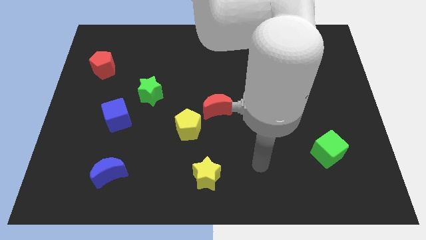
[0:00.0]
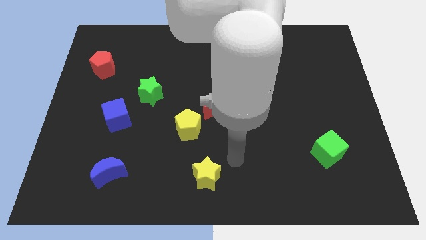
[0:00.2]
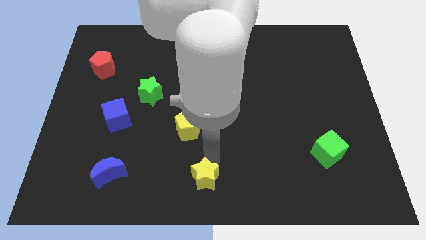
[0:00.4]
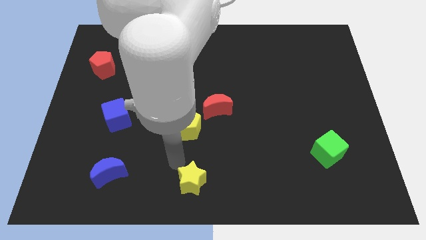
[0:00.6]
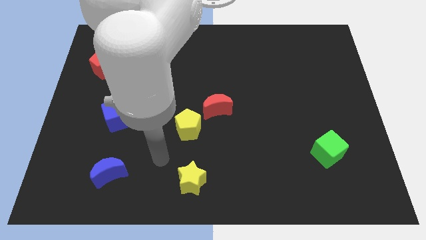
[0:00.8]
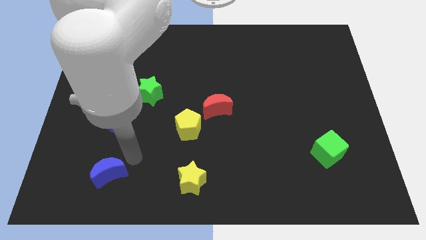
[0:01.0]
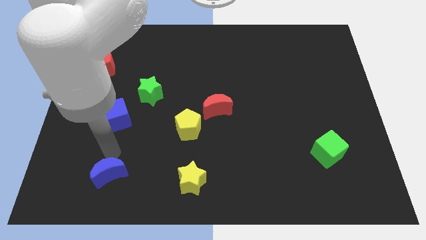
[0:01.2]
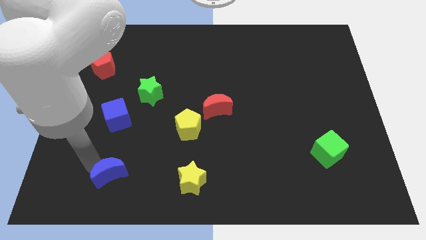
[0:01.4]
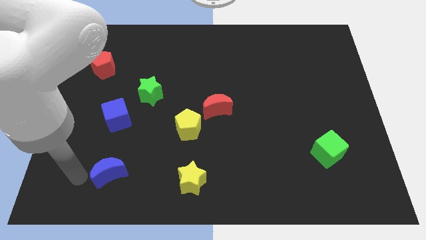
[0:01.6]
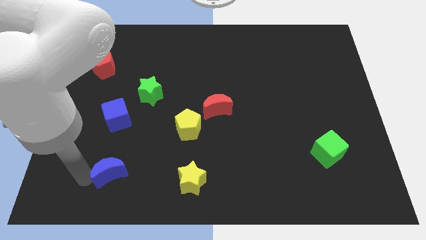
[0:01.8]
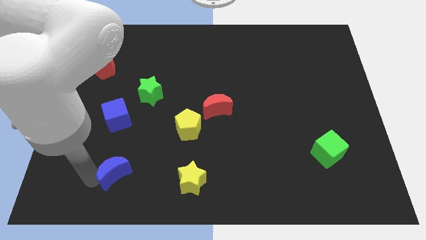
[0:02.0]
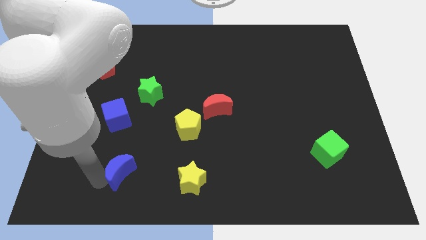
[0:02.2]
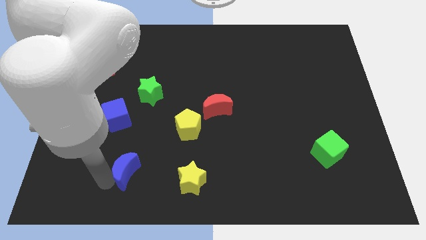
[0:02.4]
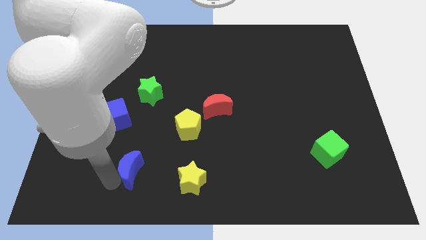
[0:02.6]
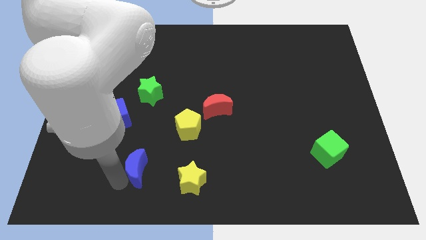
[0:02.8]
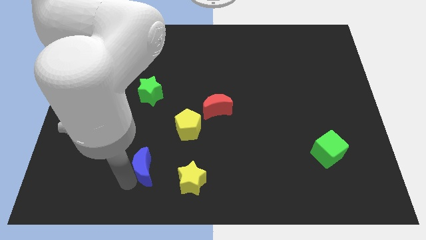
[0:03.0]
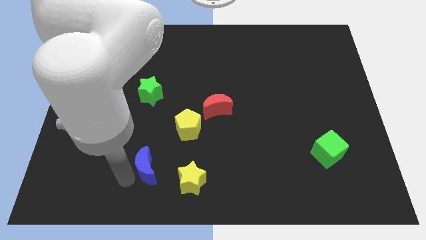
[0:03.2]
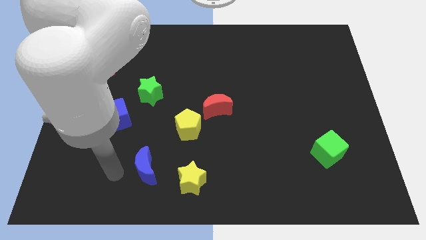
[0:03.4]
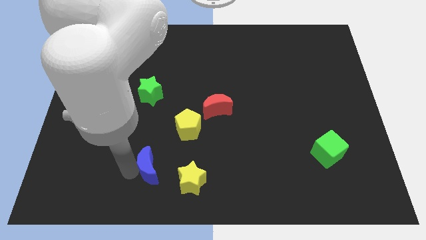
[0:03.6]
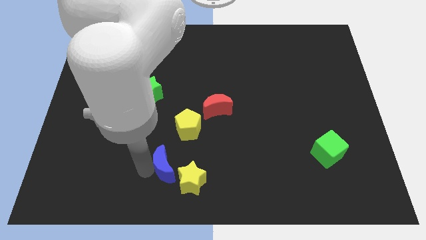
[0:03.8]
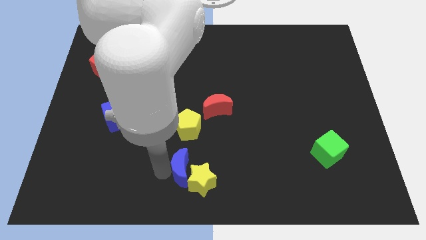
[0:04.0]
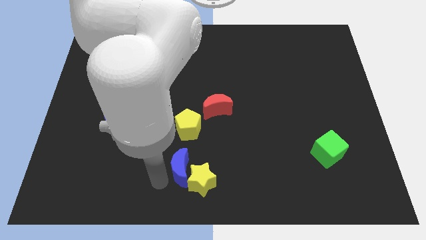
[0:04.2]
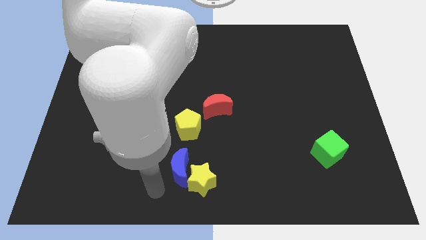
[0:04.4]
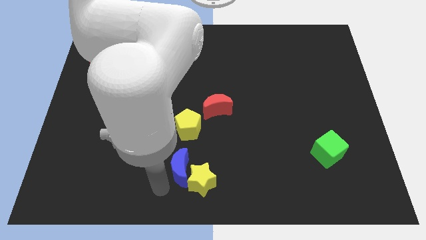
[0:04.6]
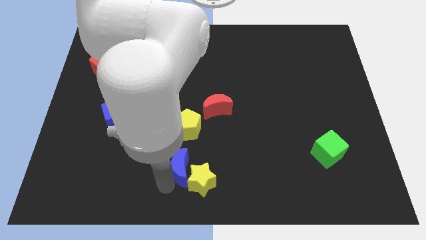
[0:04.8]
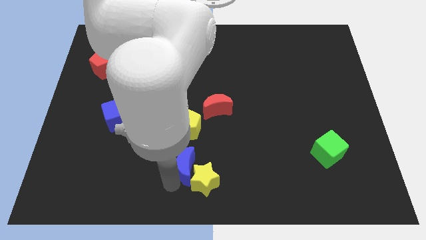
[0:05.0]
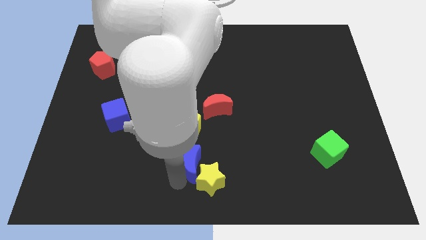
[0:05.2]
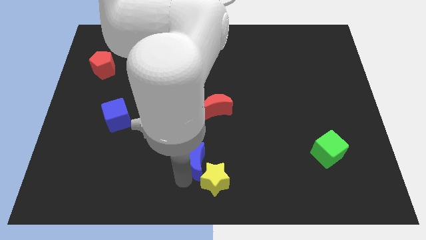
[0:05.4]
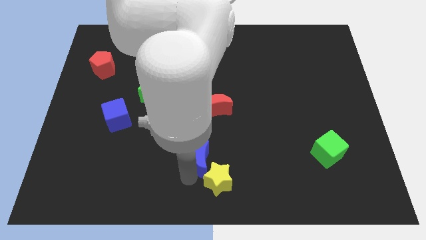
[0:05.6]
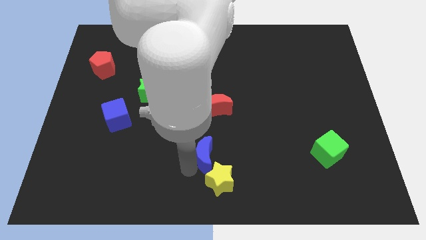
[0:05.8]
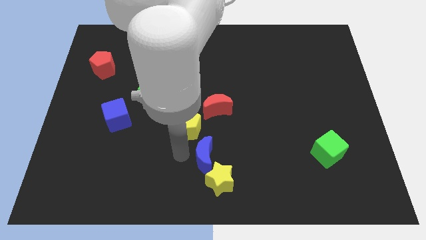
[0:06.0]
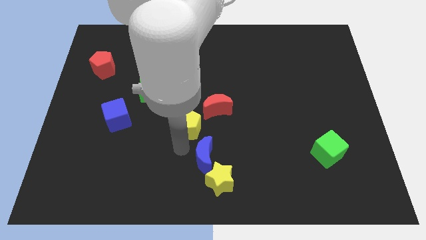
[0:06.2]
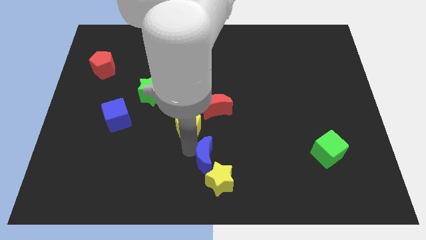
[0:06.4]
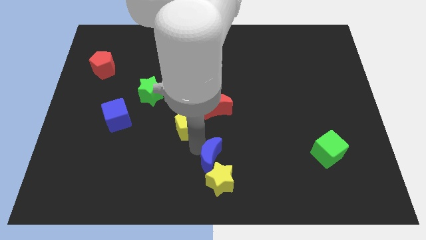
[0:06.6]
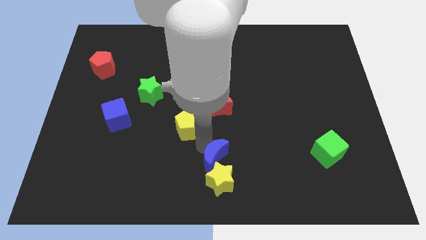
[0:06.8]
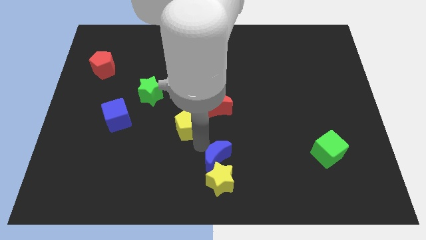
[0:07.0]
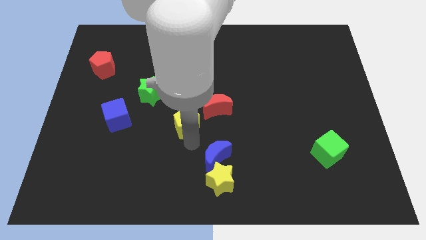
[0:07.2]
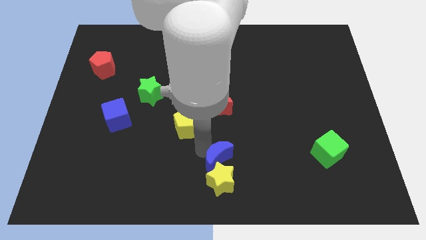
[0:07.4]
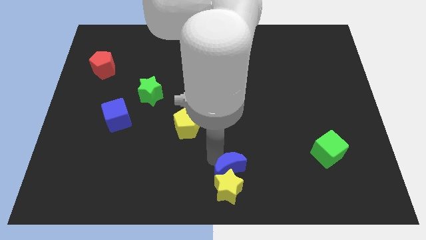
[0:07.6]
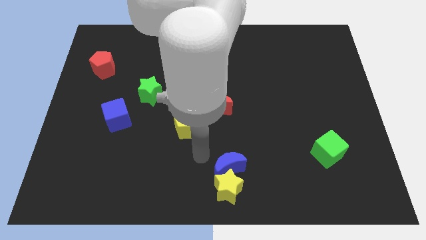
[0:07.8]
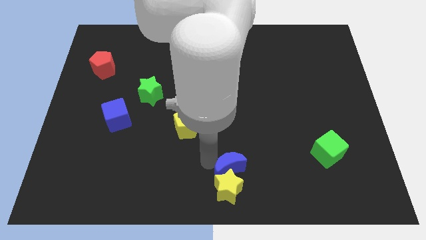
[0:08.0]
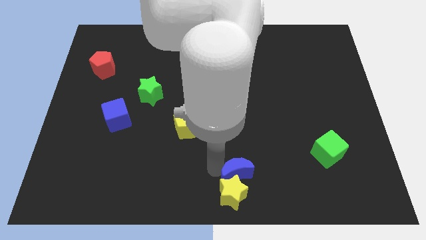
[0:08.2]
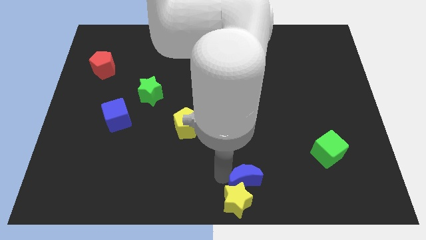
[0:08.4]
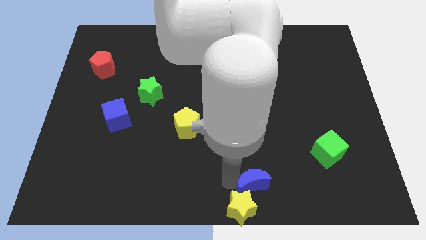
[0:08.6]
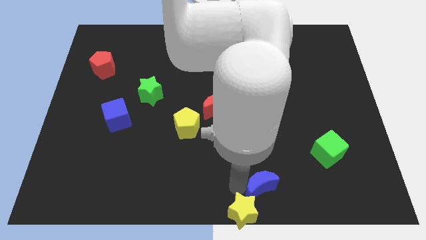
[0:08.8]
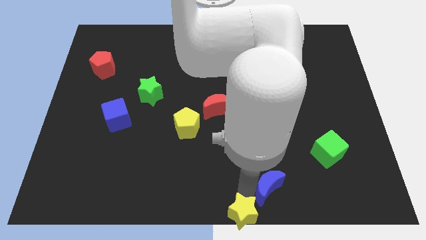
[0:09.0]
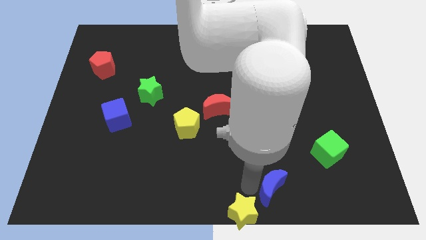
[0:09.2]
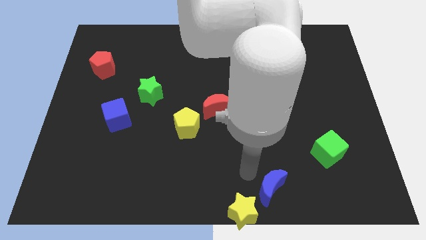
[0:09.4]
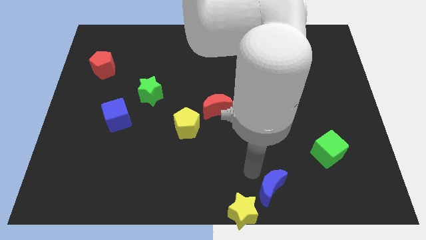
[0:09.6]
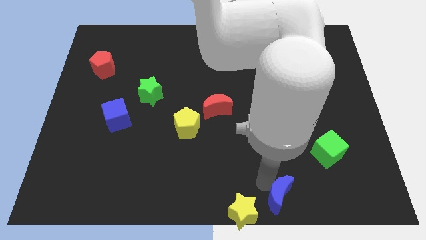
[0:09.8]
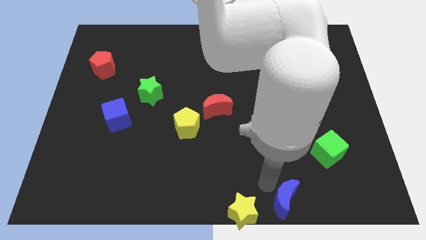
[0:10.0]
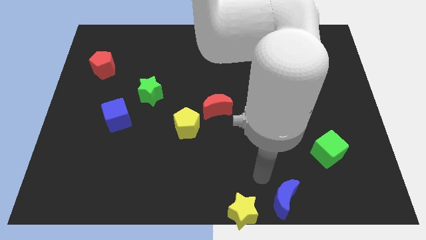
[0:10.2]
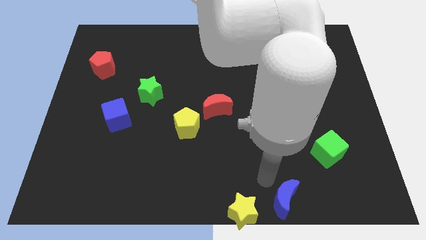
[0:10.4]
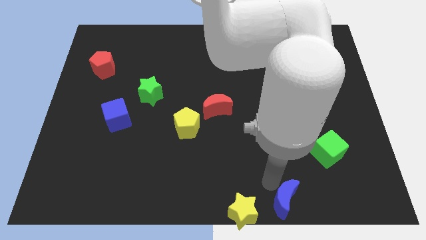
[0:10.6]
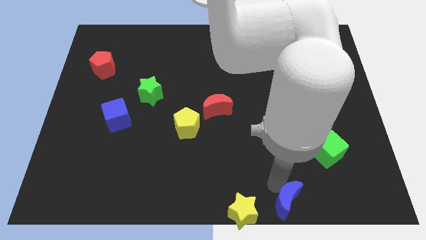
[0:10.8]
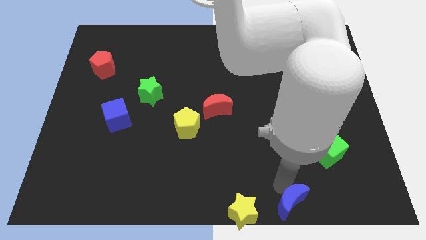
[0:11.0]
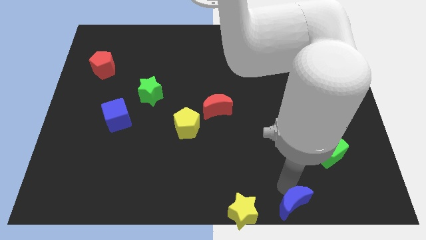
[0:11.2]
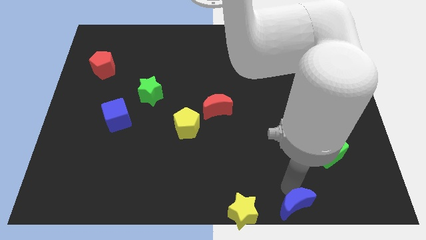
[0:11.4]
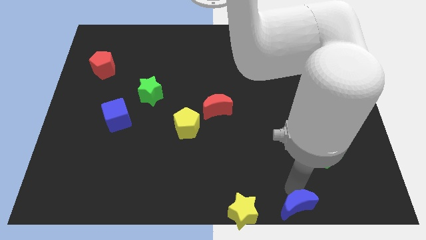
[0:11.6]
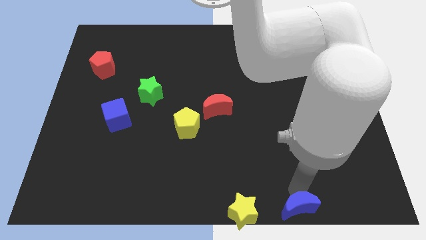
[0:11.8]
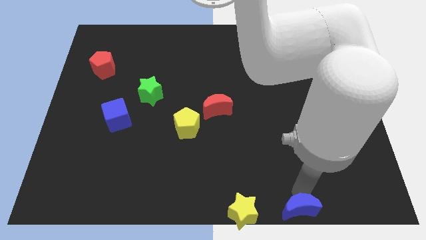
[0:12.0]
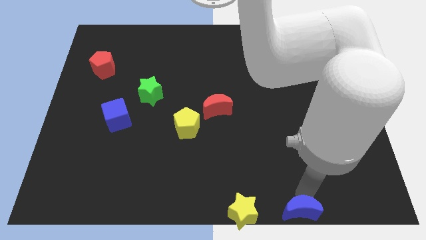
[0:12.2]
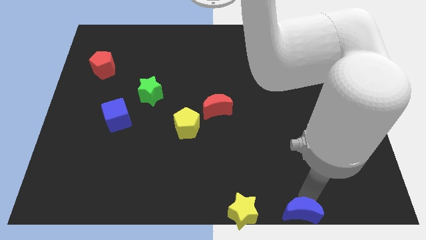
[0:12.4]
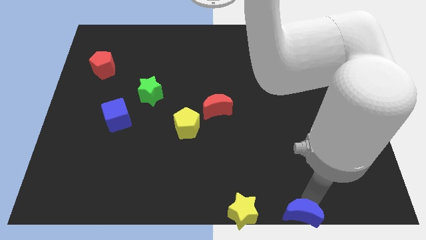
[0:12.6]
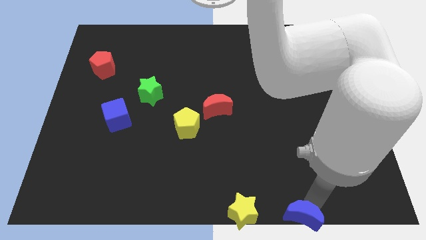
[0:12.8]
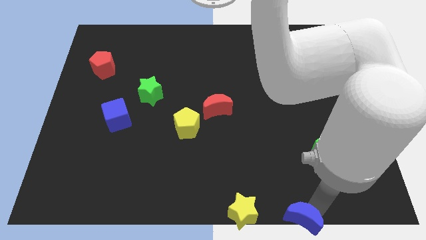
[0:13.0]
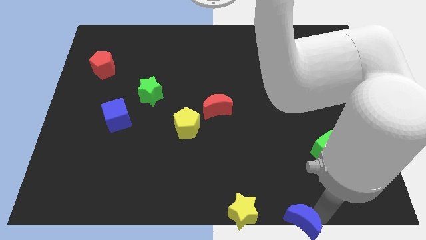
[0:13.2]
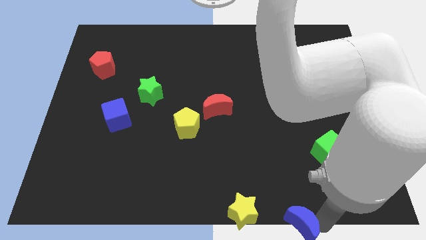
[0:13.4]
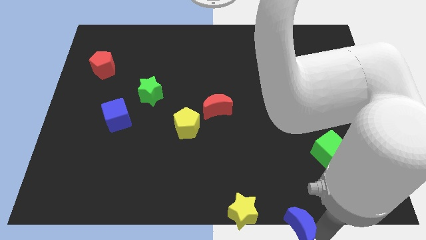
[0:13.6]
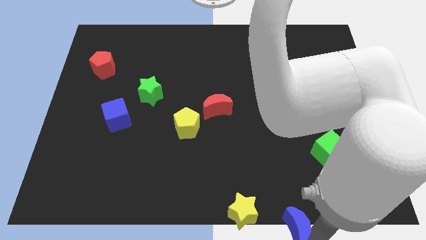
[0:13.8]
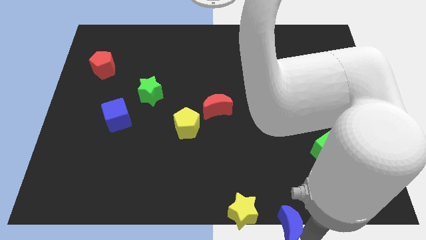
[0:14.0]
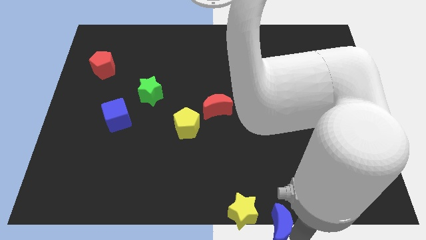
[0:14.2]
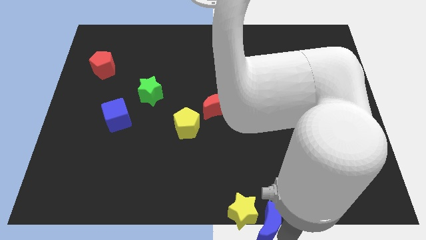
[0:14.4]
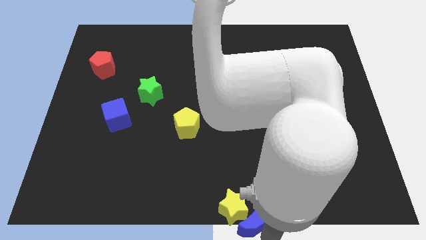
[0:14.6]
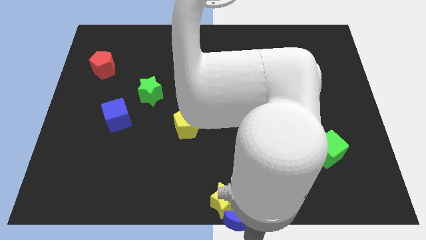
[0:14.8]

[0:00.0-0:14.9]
push the blue moon just right of the yellow star
